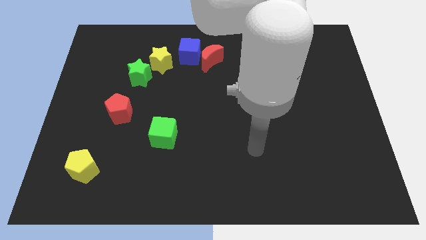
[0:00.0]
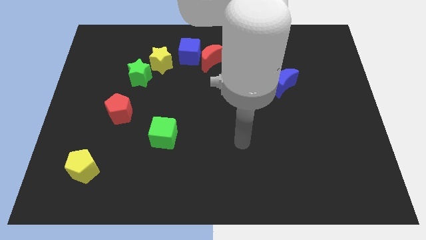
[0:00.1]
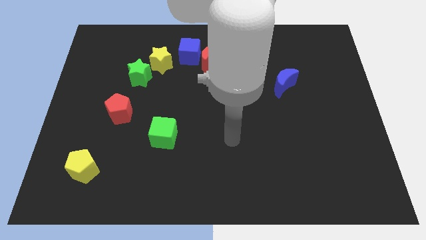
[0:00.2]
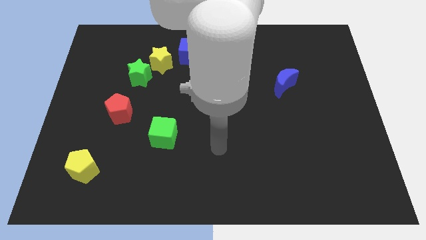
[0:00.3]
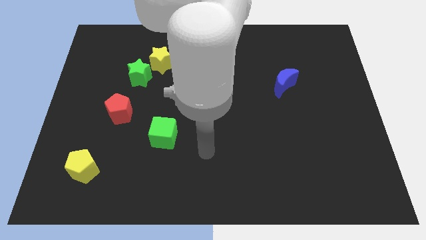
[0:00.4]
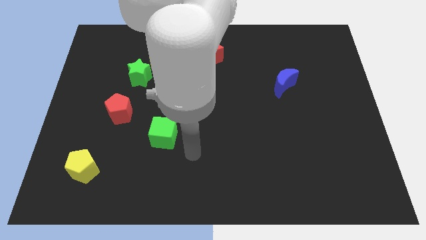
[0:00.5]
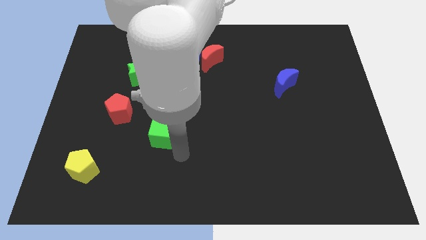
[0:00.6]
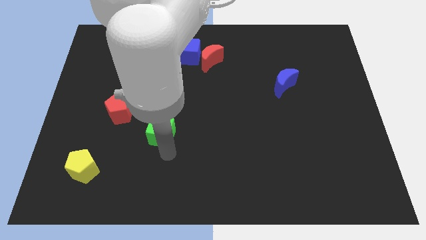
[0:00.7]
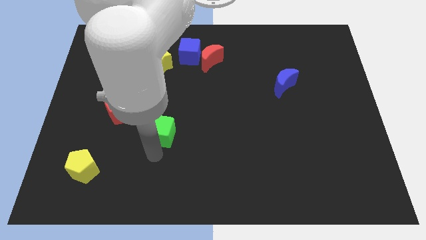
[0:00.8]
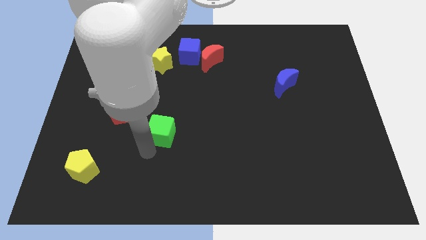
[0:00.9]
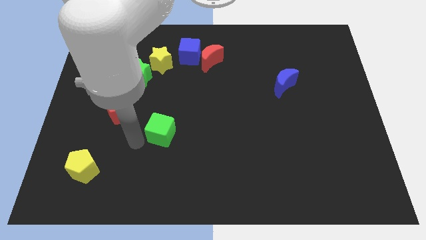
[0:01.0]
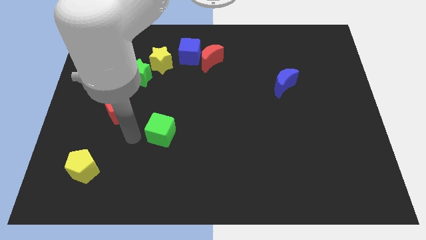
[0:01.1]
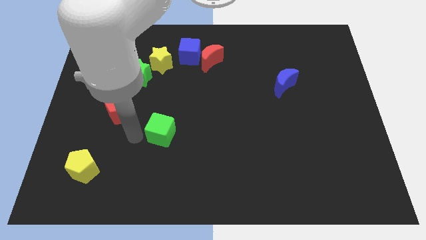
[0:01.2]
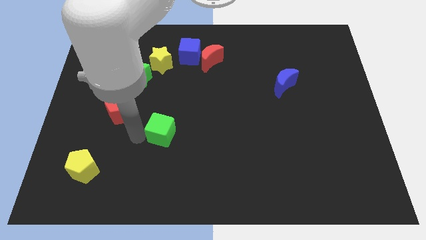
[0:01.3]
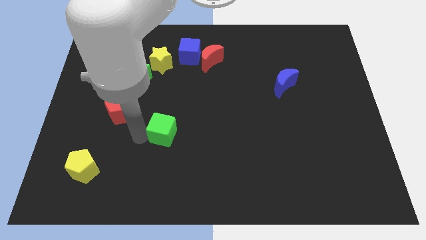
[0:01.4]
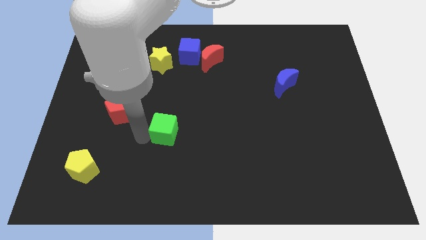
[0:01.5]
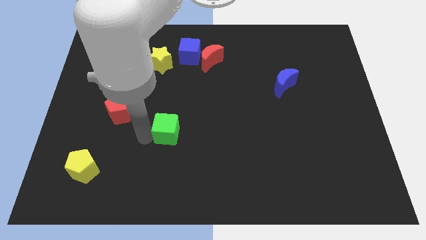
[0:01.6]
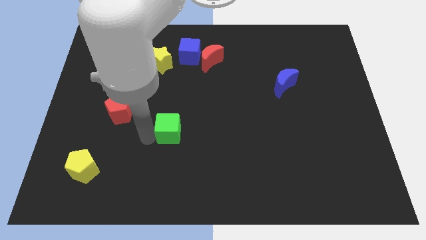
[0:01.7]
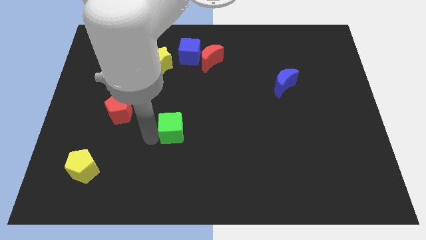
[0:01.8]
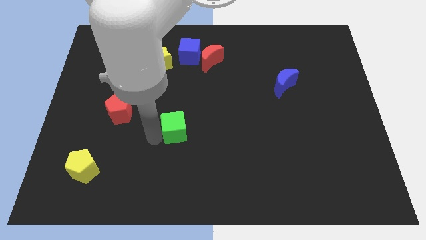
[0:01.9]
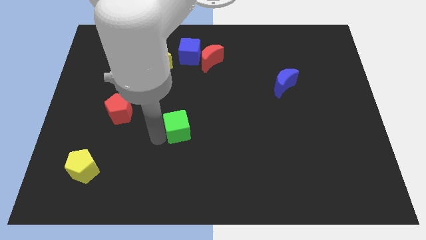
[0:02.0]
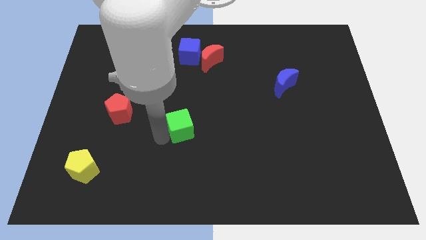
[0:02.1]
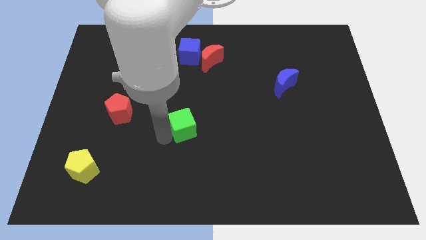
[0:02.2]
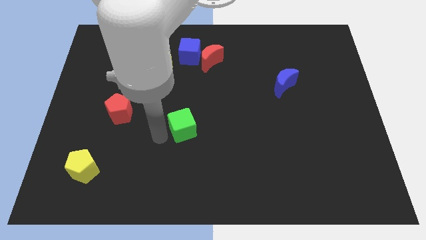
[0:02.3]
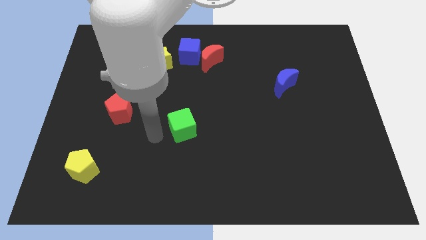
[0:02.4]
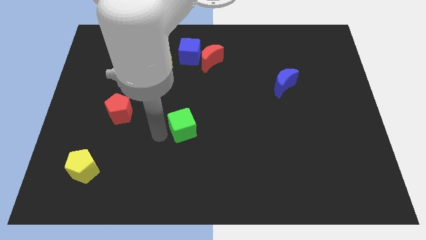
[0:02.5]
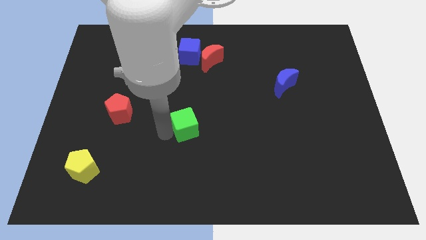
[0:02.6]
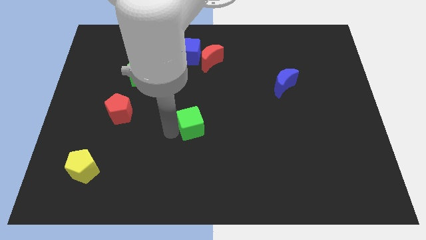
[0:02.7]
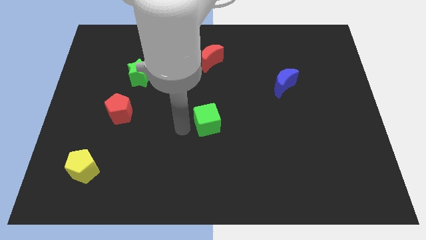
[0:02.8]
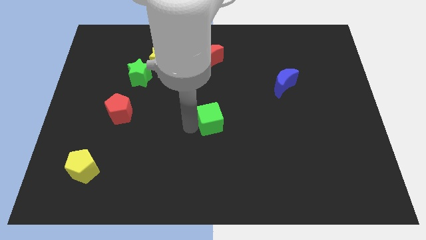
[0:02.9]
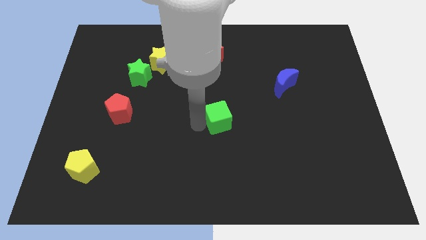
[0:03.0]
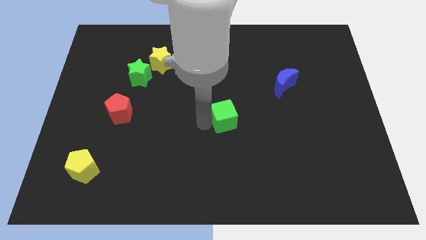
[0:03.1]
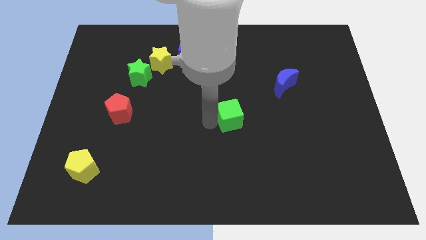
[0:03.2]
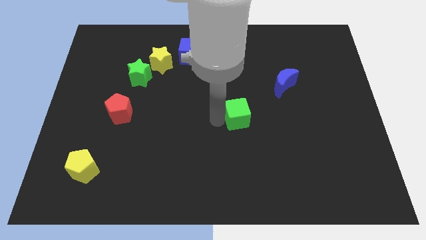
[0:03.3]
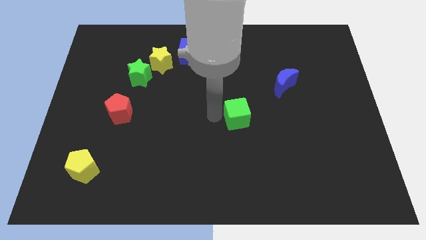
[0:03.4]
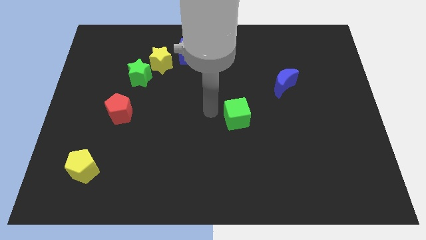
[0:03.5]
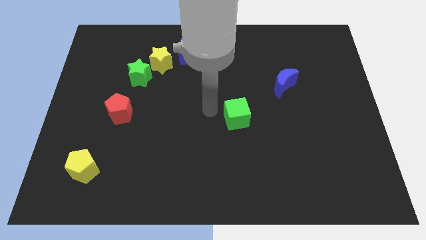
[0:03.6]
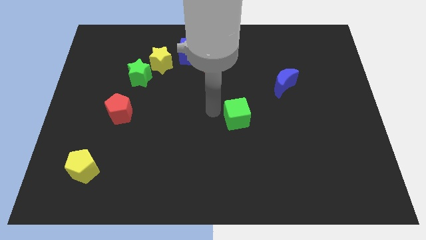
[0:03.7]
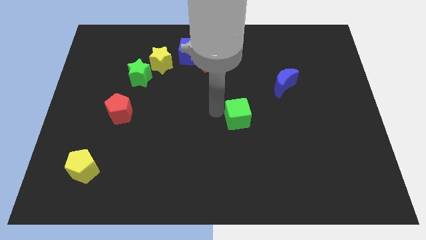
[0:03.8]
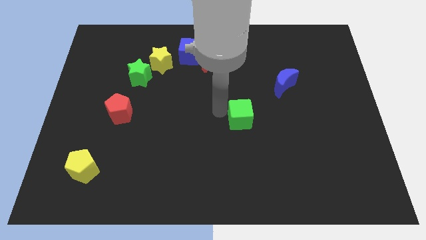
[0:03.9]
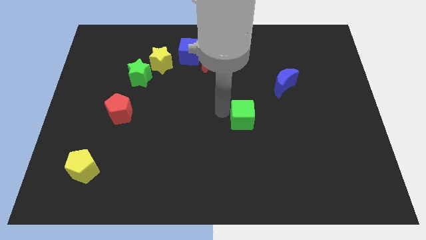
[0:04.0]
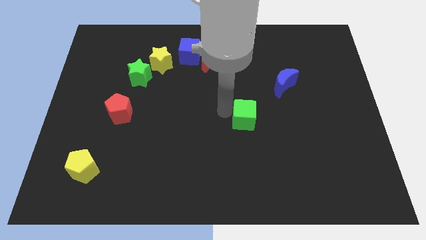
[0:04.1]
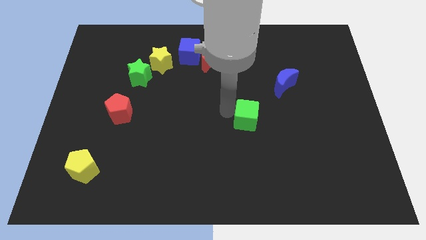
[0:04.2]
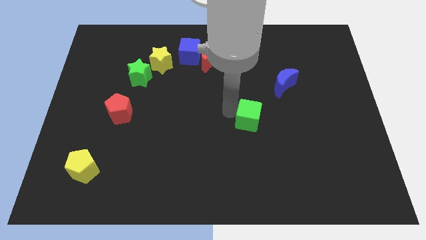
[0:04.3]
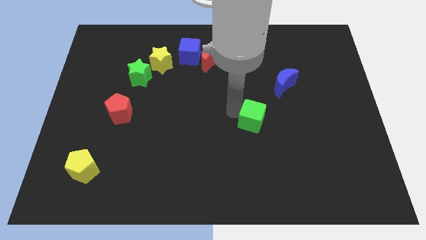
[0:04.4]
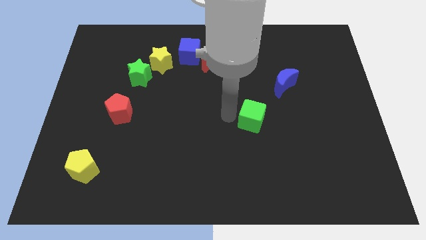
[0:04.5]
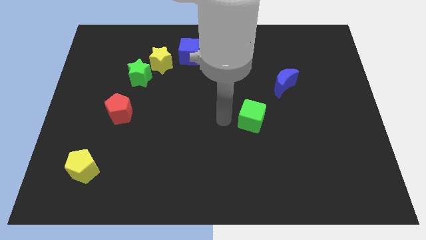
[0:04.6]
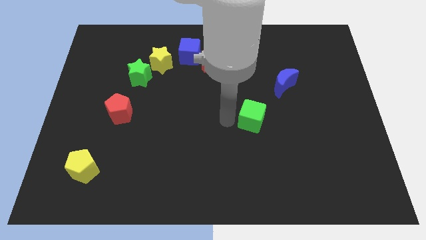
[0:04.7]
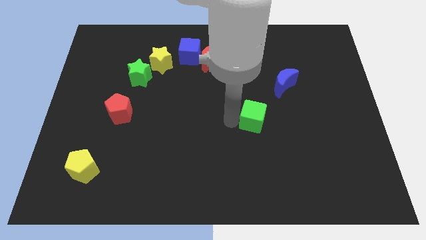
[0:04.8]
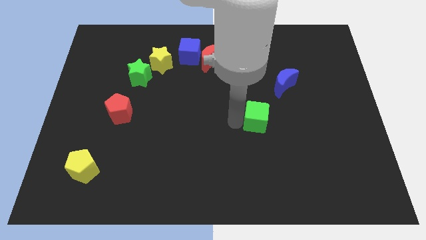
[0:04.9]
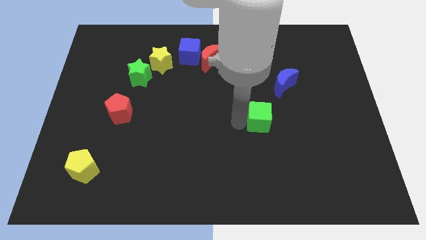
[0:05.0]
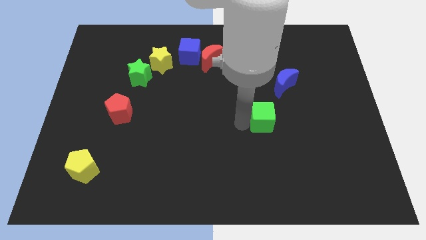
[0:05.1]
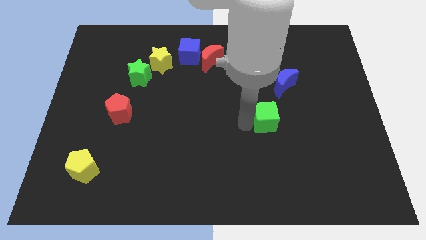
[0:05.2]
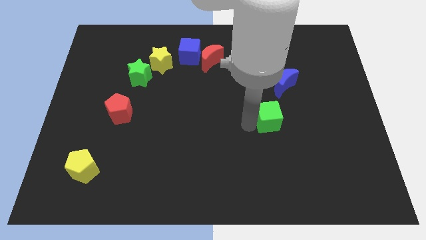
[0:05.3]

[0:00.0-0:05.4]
put the green cube to the bottom side of the blue moon

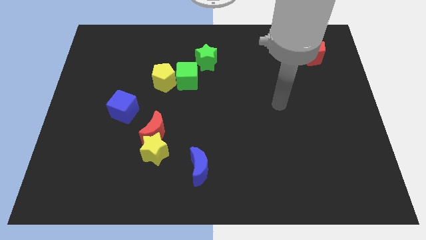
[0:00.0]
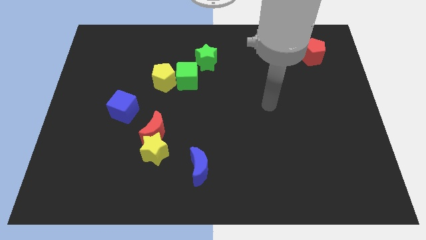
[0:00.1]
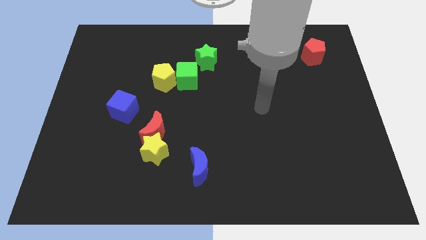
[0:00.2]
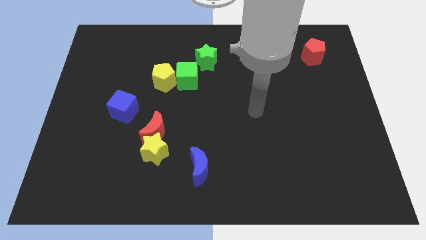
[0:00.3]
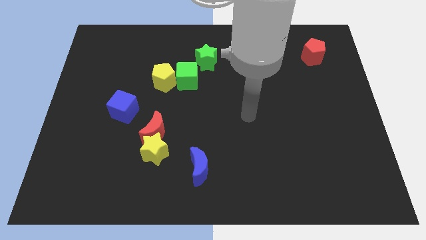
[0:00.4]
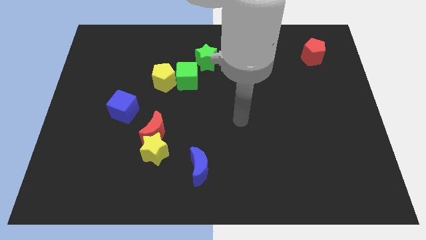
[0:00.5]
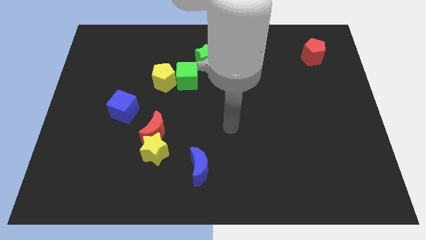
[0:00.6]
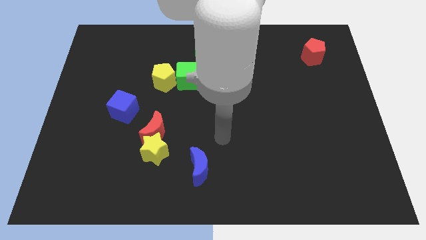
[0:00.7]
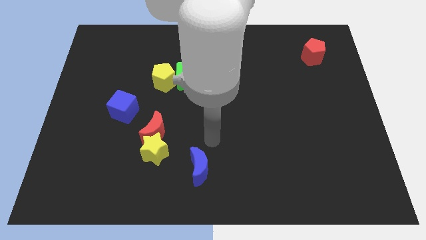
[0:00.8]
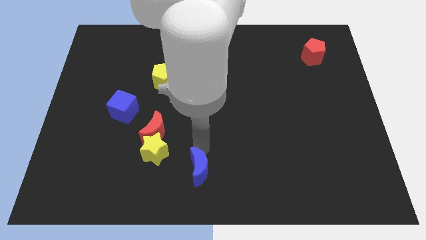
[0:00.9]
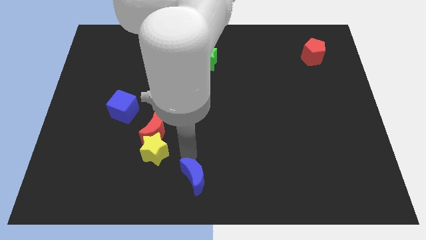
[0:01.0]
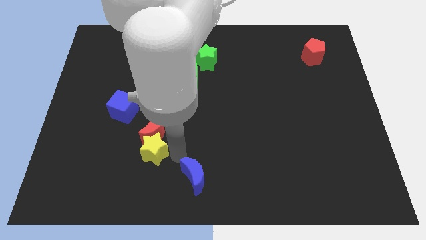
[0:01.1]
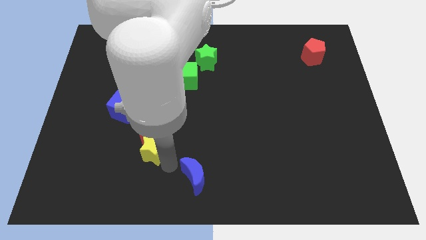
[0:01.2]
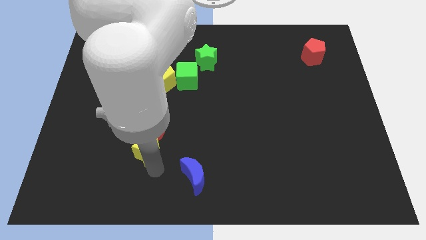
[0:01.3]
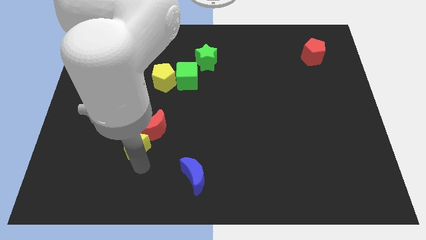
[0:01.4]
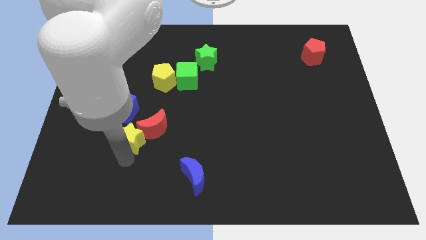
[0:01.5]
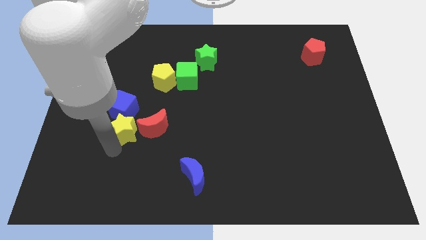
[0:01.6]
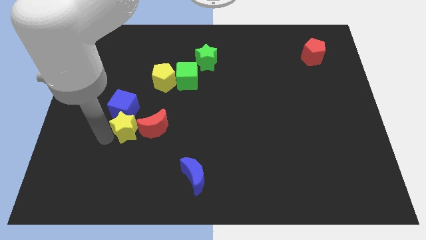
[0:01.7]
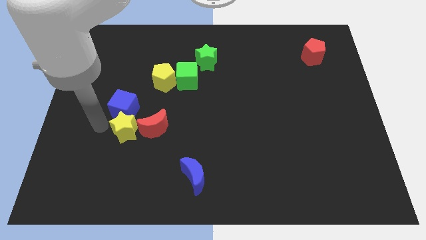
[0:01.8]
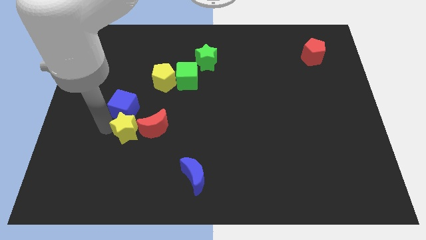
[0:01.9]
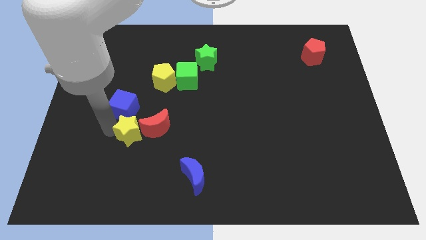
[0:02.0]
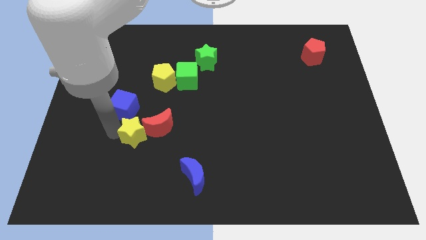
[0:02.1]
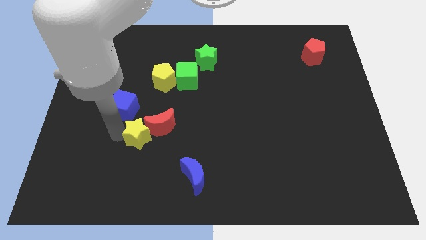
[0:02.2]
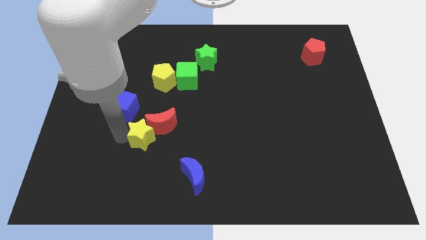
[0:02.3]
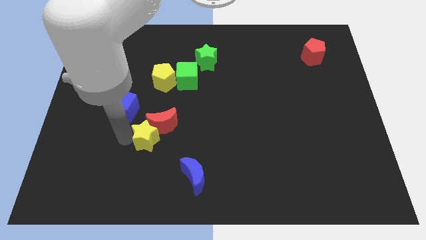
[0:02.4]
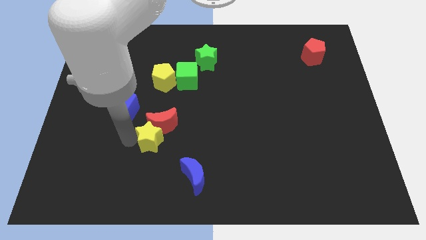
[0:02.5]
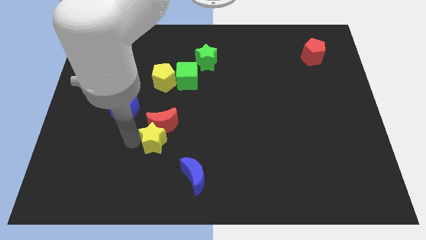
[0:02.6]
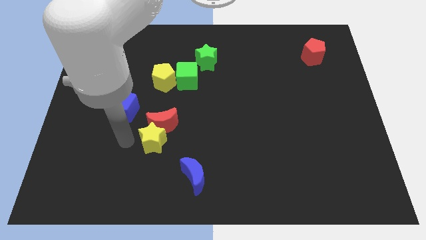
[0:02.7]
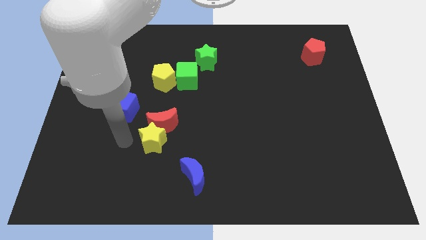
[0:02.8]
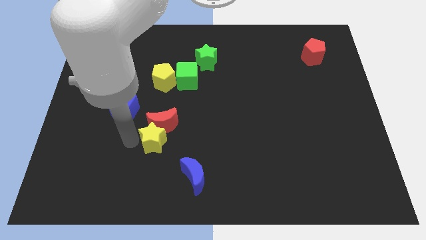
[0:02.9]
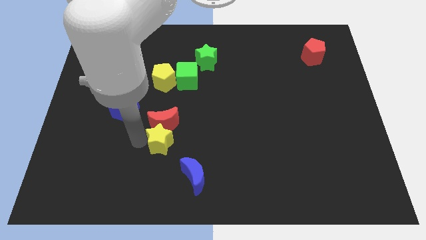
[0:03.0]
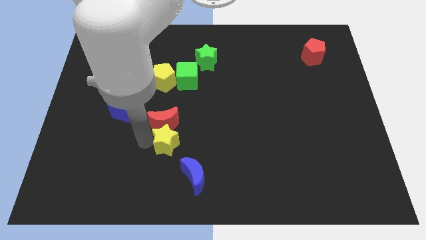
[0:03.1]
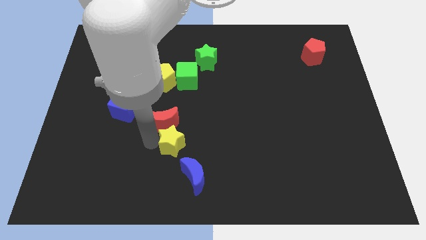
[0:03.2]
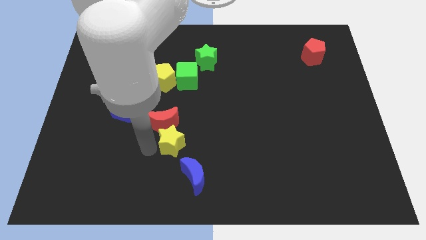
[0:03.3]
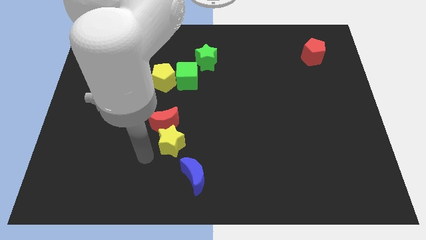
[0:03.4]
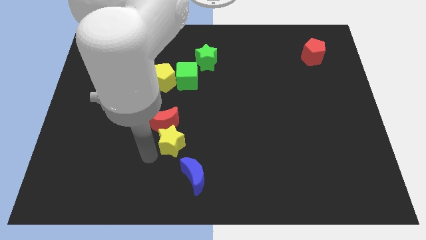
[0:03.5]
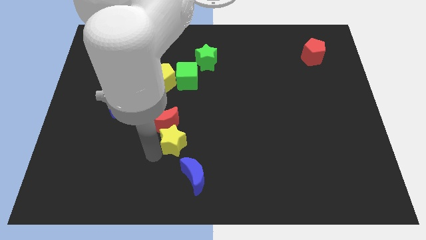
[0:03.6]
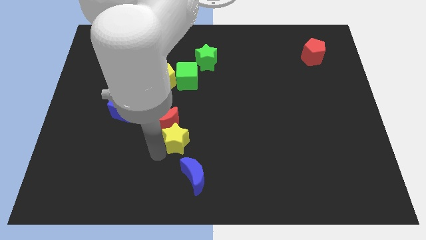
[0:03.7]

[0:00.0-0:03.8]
put the yellow star to the right side of the red moon
